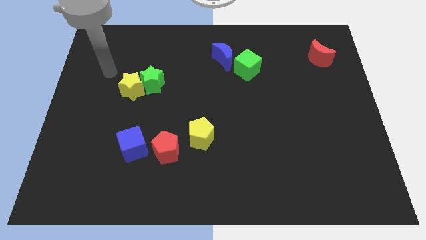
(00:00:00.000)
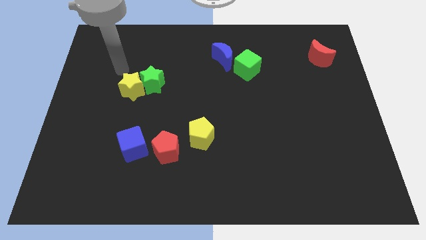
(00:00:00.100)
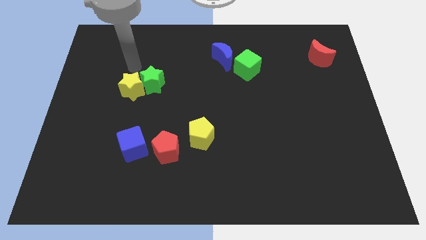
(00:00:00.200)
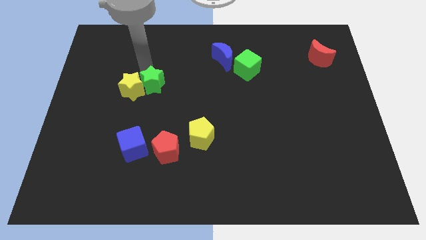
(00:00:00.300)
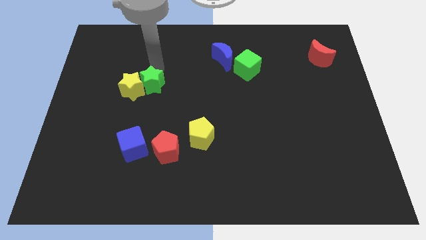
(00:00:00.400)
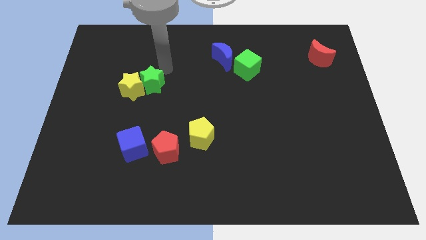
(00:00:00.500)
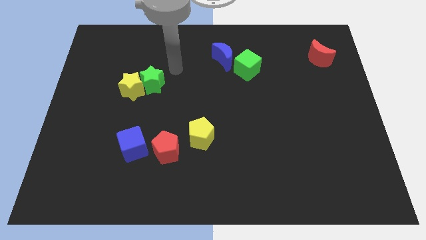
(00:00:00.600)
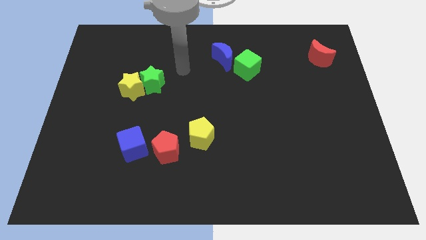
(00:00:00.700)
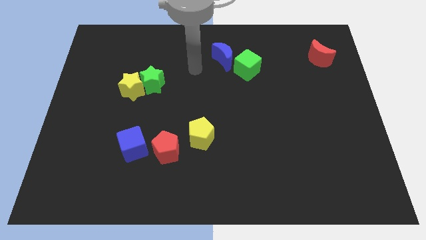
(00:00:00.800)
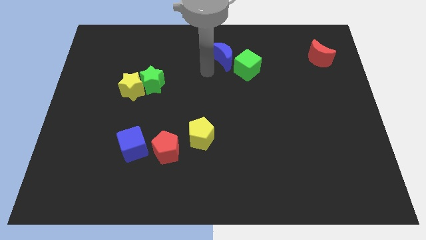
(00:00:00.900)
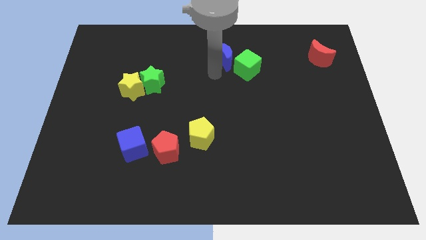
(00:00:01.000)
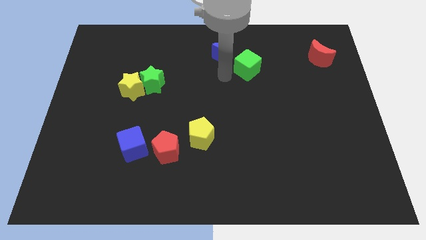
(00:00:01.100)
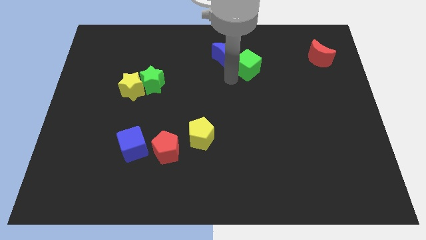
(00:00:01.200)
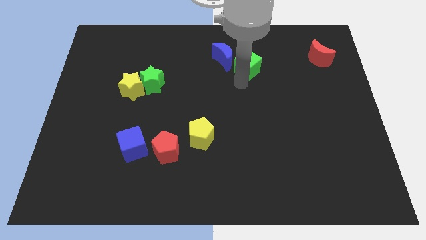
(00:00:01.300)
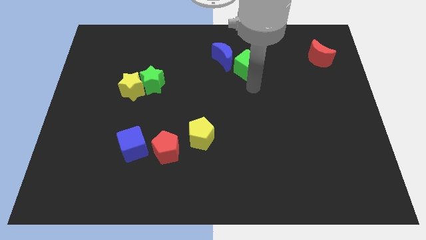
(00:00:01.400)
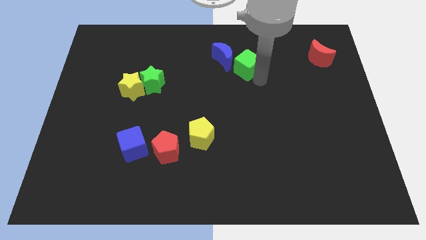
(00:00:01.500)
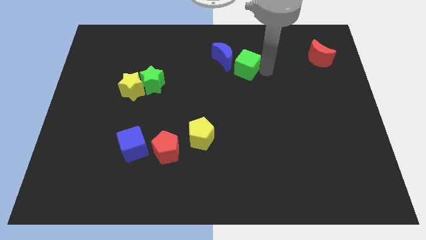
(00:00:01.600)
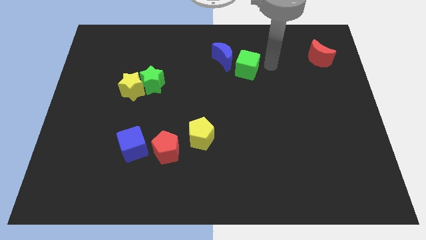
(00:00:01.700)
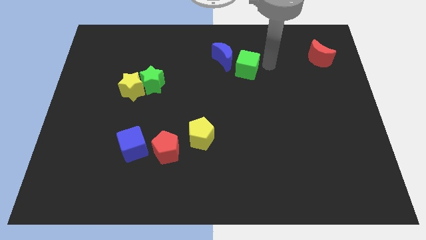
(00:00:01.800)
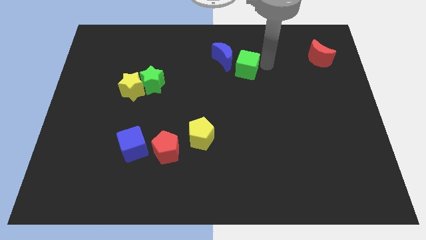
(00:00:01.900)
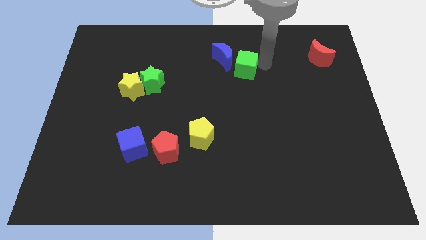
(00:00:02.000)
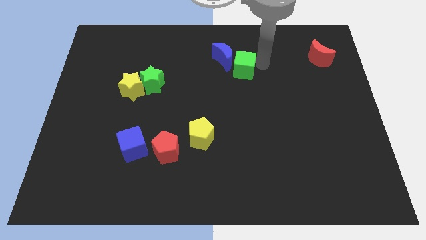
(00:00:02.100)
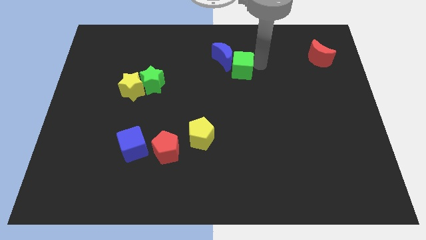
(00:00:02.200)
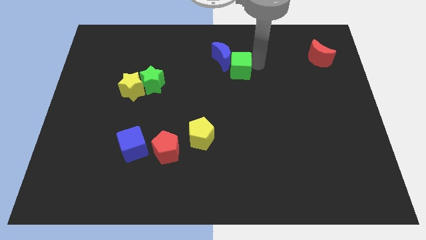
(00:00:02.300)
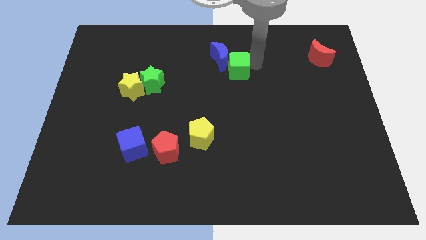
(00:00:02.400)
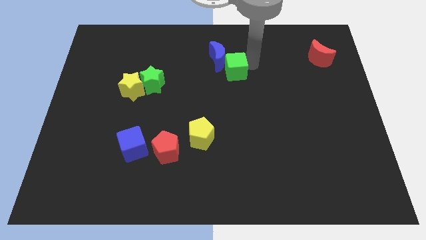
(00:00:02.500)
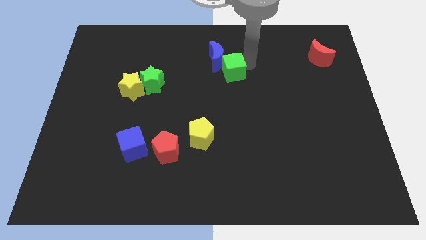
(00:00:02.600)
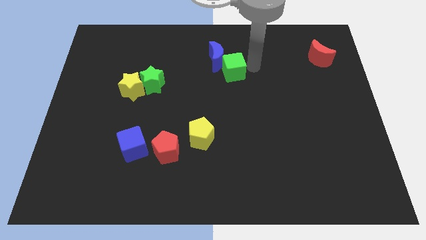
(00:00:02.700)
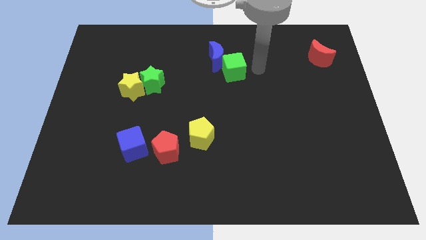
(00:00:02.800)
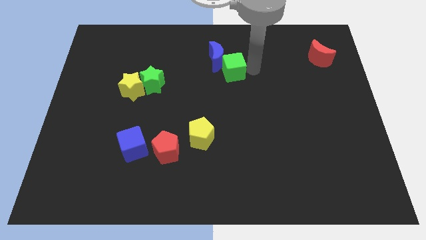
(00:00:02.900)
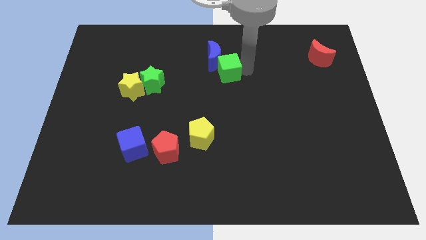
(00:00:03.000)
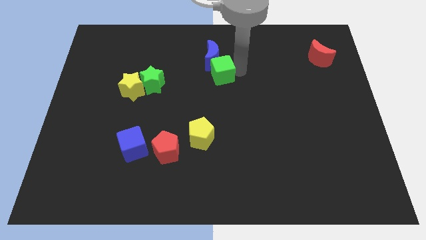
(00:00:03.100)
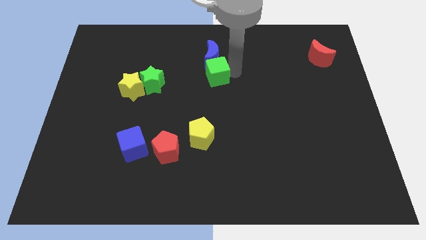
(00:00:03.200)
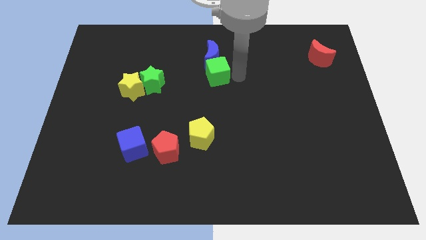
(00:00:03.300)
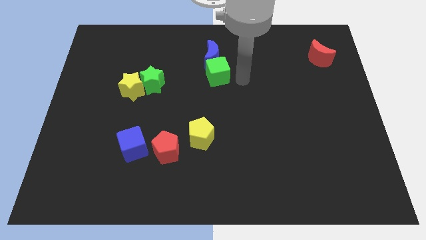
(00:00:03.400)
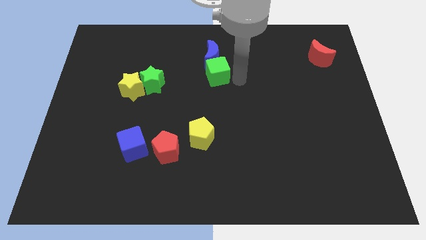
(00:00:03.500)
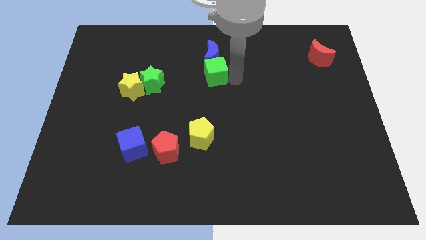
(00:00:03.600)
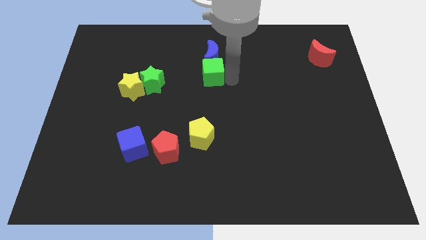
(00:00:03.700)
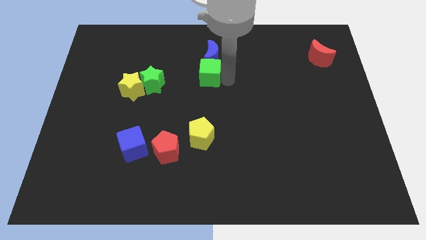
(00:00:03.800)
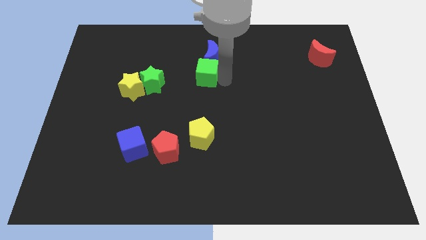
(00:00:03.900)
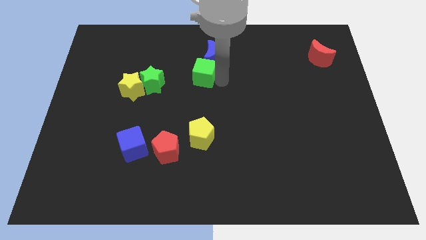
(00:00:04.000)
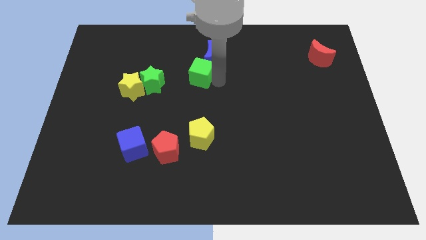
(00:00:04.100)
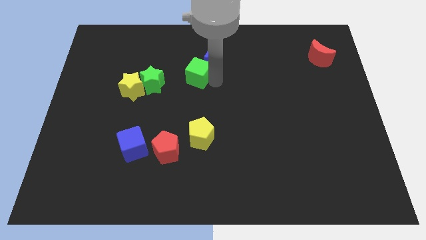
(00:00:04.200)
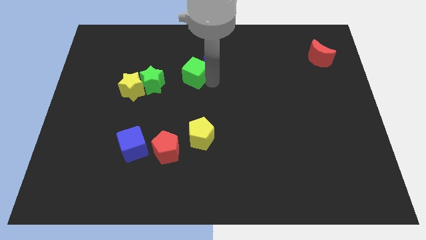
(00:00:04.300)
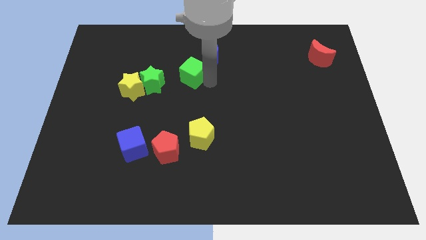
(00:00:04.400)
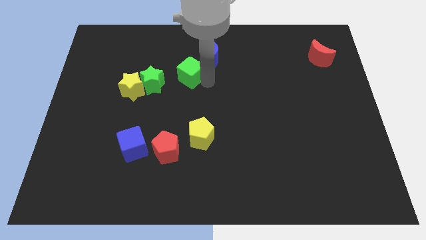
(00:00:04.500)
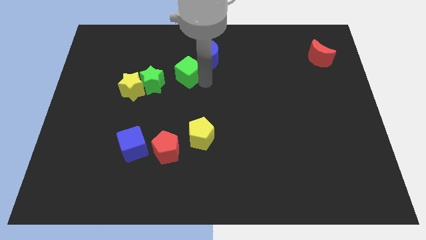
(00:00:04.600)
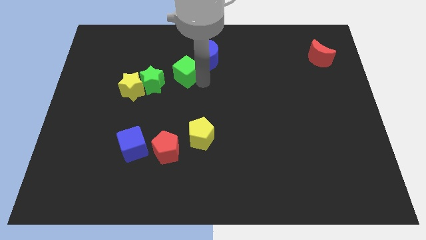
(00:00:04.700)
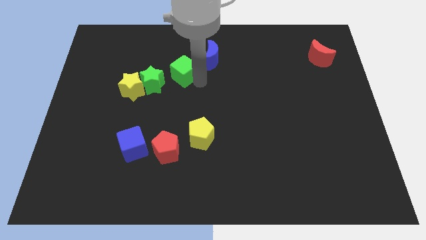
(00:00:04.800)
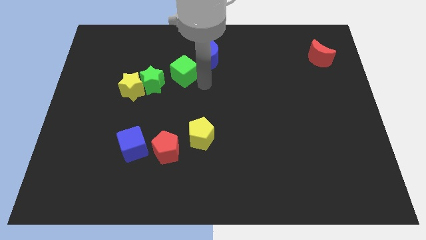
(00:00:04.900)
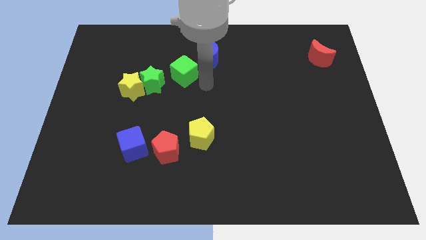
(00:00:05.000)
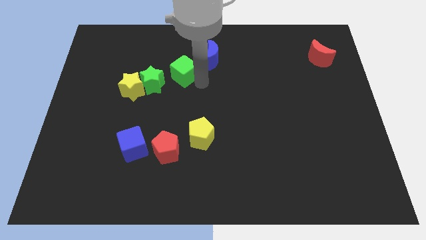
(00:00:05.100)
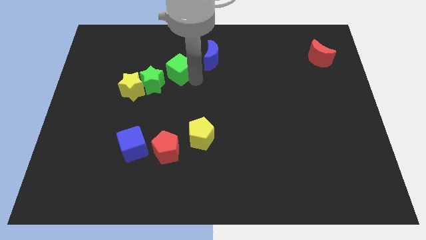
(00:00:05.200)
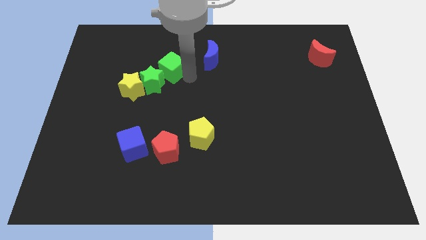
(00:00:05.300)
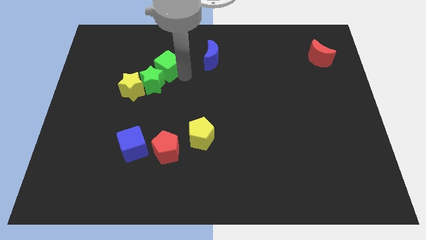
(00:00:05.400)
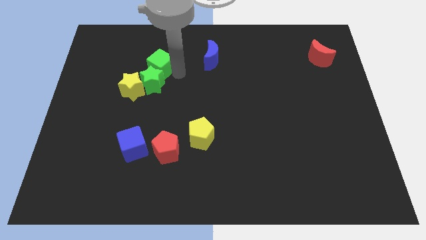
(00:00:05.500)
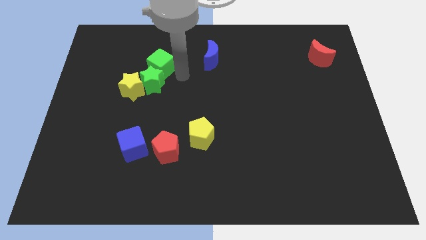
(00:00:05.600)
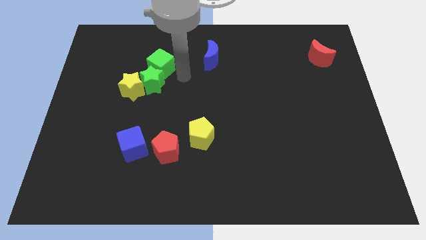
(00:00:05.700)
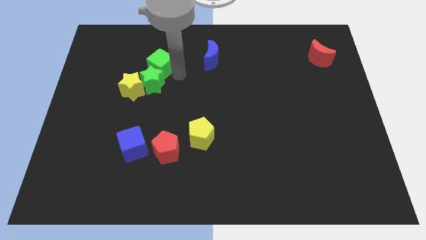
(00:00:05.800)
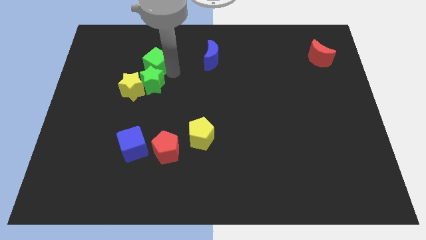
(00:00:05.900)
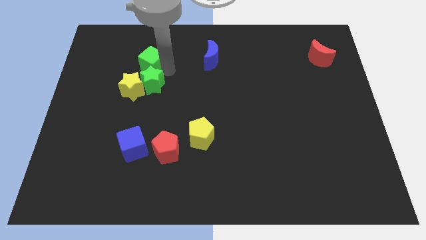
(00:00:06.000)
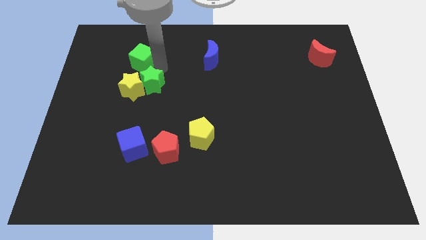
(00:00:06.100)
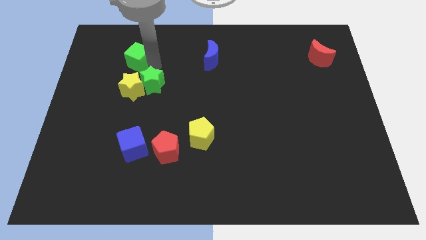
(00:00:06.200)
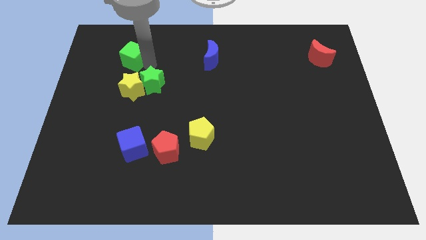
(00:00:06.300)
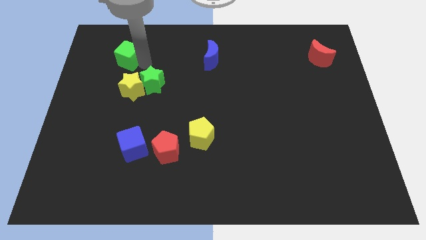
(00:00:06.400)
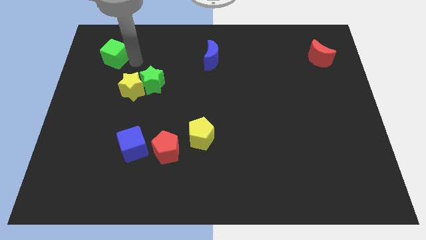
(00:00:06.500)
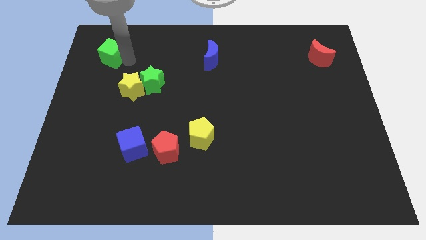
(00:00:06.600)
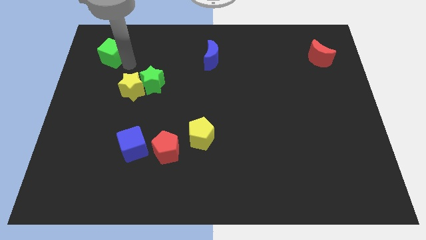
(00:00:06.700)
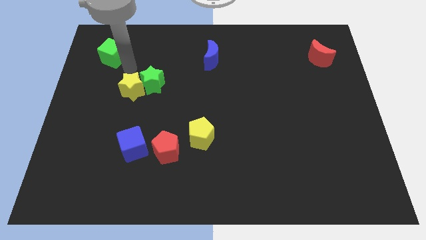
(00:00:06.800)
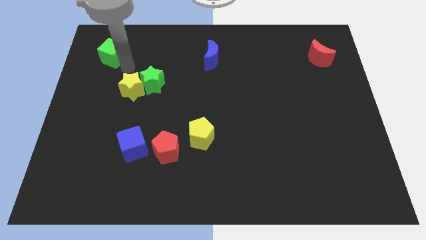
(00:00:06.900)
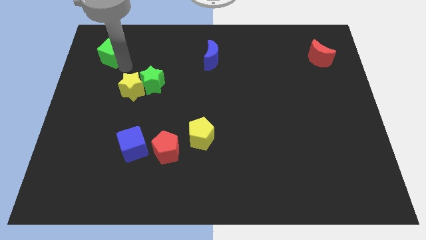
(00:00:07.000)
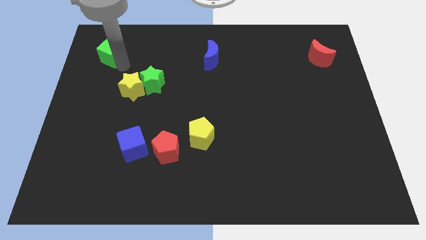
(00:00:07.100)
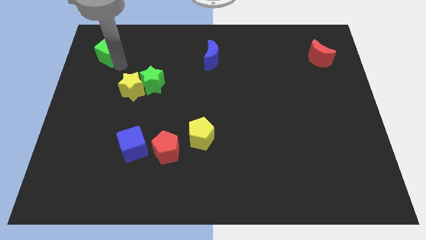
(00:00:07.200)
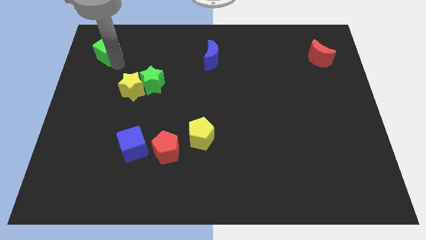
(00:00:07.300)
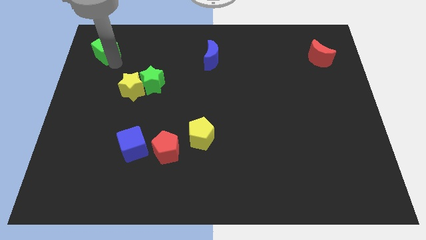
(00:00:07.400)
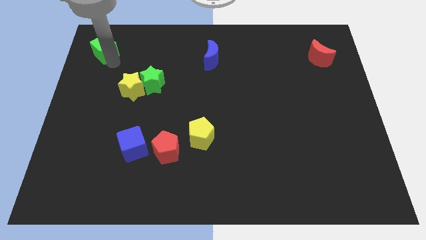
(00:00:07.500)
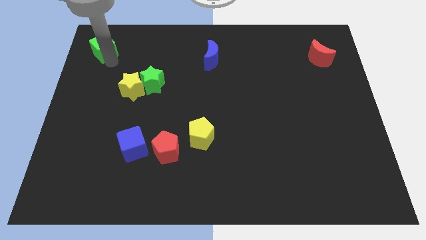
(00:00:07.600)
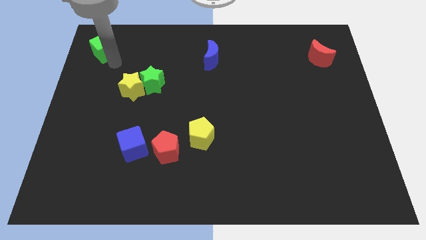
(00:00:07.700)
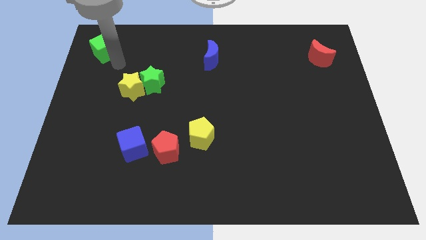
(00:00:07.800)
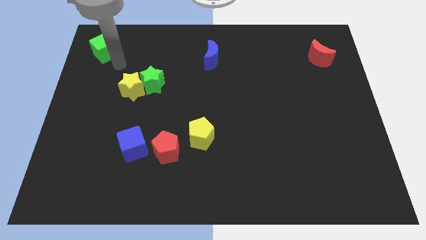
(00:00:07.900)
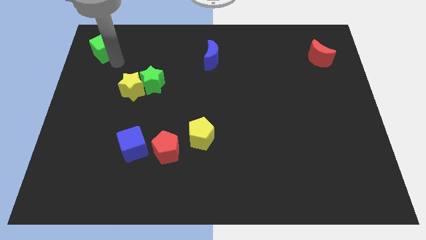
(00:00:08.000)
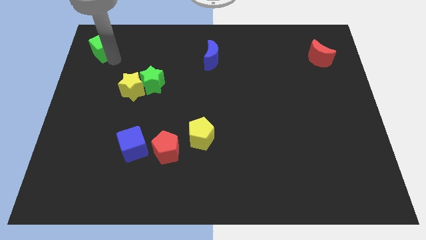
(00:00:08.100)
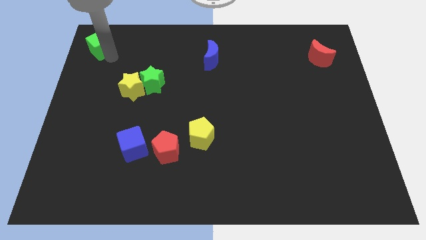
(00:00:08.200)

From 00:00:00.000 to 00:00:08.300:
push the green cube to the top left of the board
